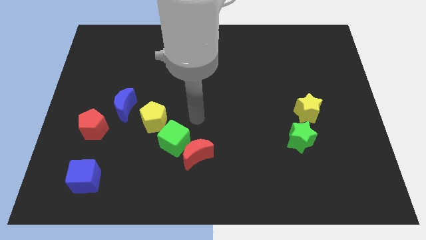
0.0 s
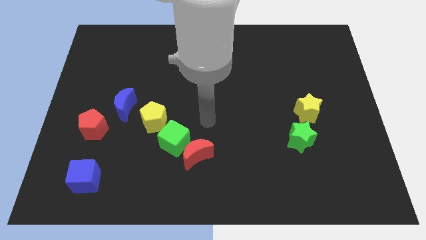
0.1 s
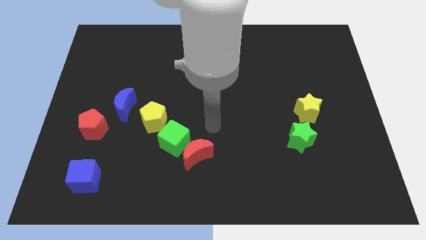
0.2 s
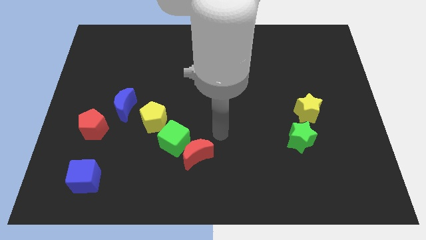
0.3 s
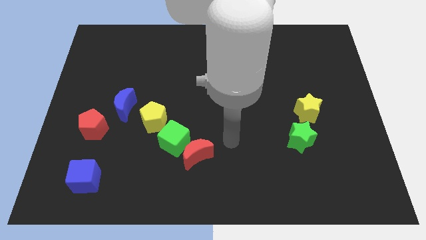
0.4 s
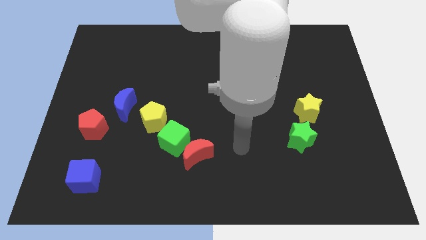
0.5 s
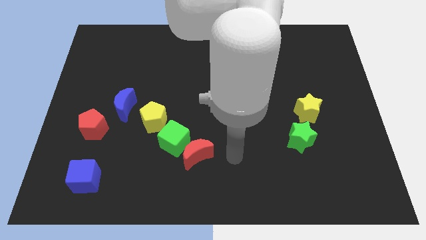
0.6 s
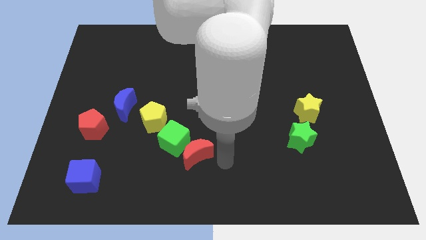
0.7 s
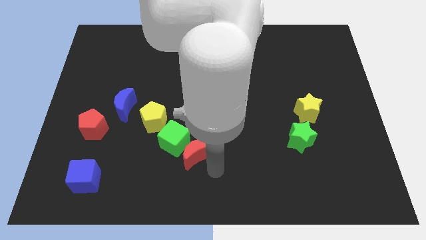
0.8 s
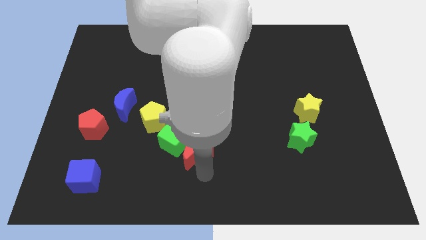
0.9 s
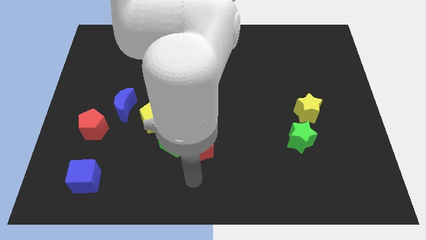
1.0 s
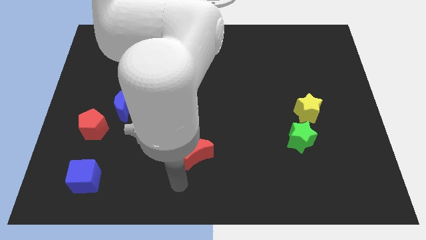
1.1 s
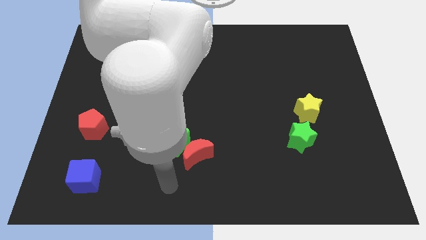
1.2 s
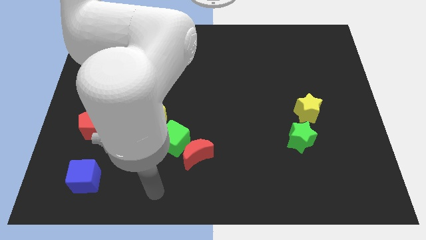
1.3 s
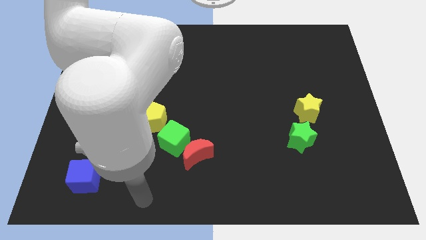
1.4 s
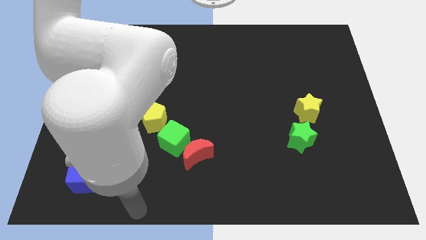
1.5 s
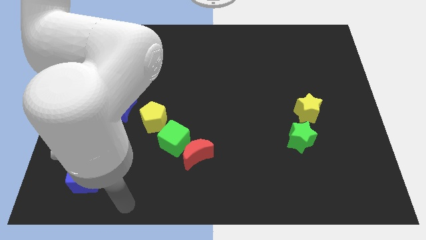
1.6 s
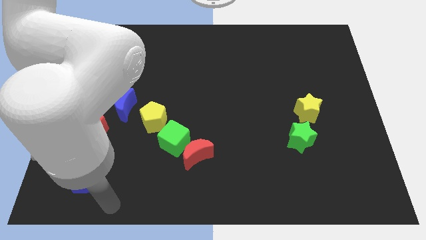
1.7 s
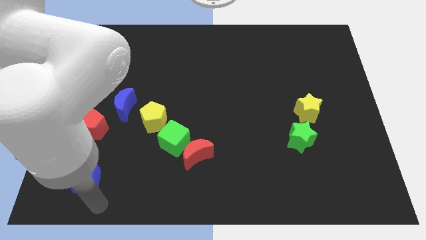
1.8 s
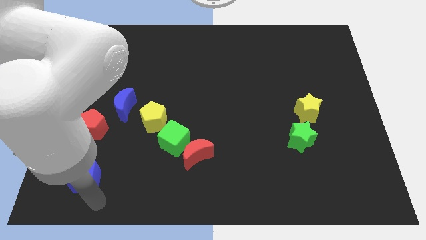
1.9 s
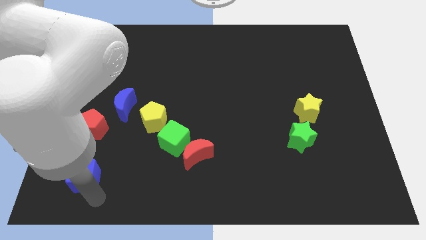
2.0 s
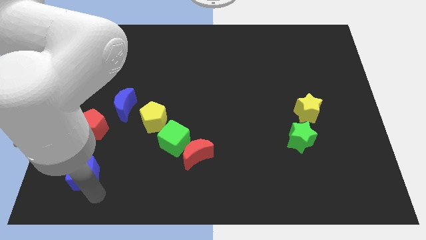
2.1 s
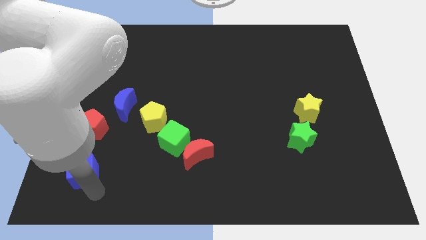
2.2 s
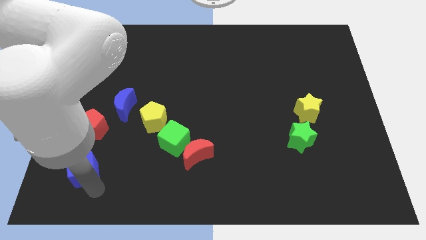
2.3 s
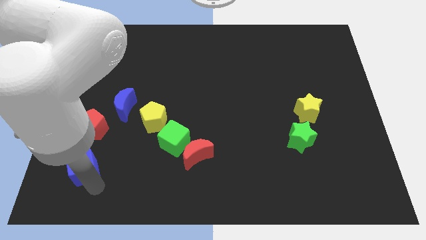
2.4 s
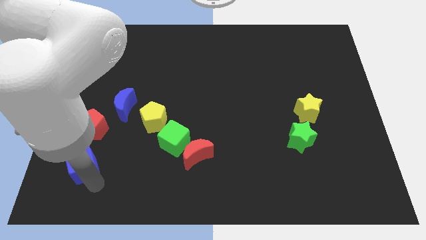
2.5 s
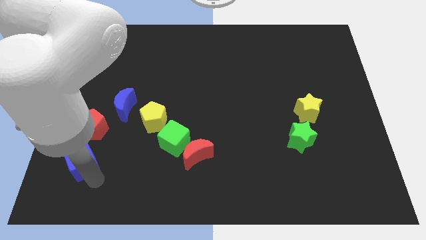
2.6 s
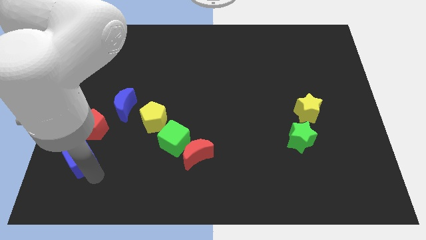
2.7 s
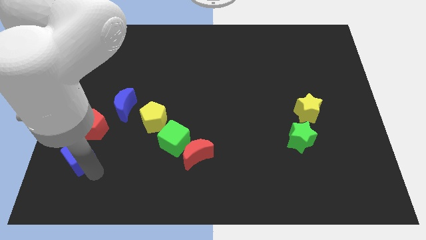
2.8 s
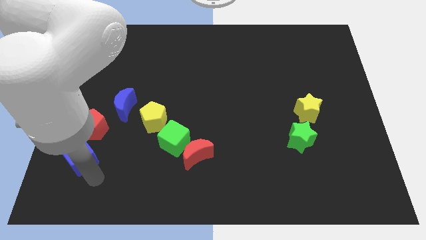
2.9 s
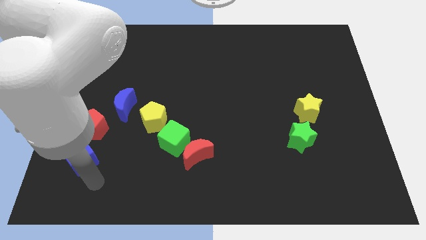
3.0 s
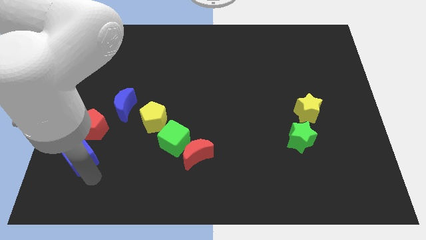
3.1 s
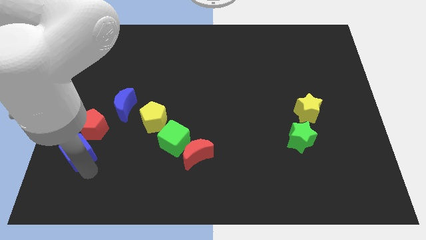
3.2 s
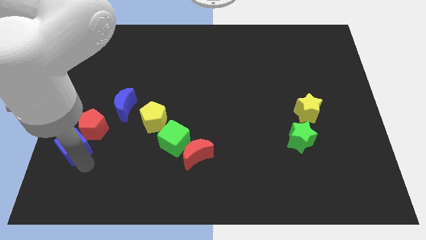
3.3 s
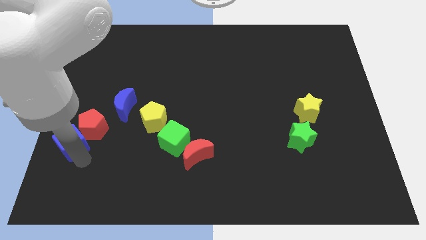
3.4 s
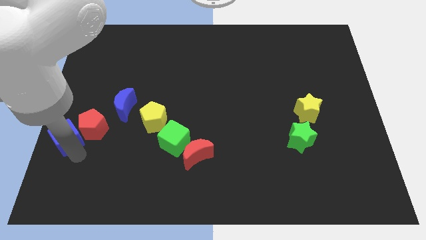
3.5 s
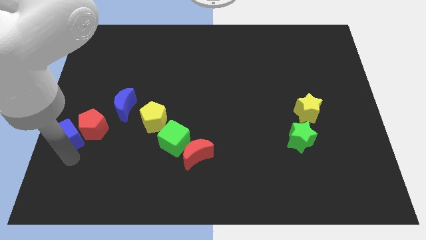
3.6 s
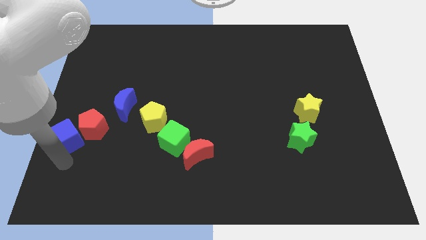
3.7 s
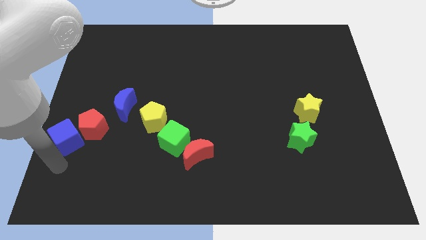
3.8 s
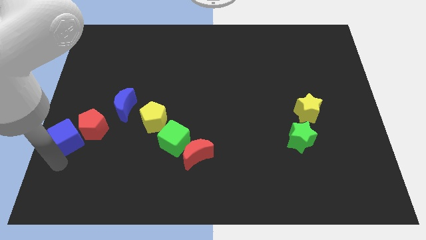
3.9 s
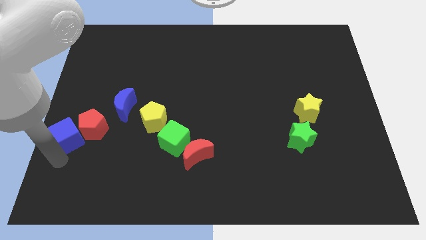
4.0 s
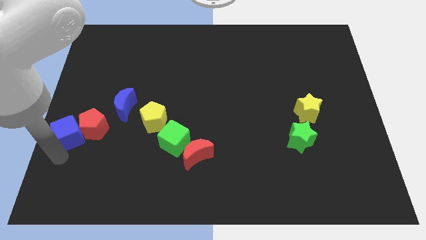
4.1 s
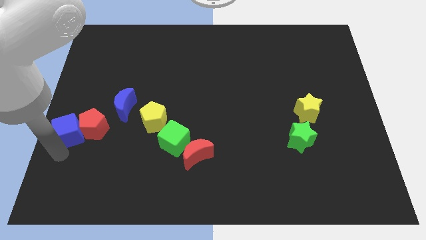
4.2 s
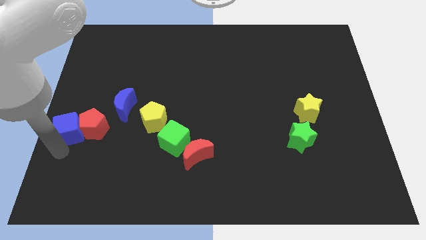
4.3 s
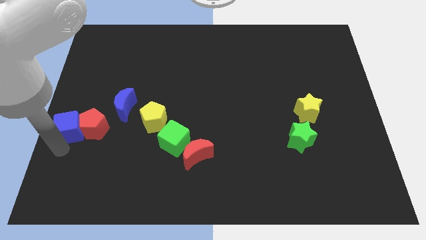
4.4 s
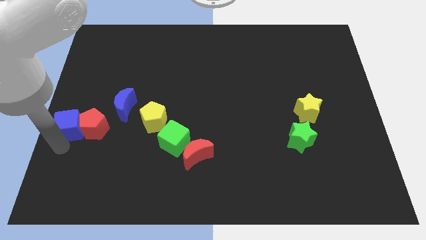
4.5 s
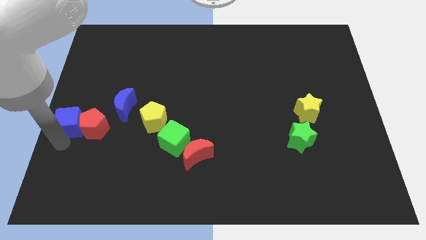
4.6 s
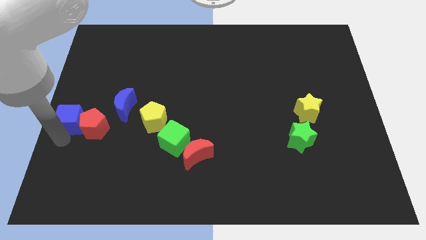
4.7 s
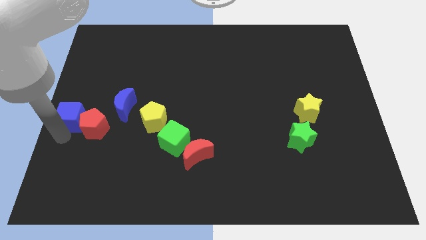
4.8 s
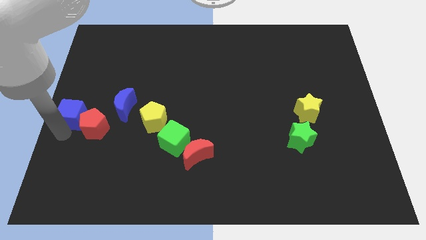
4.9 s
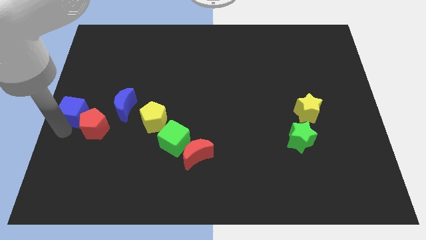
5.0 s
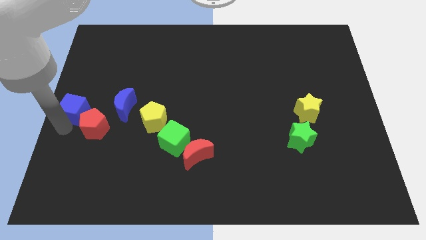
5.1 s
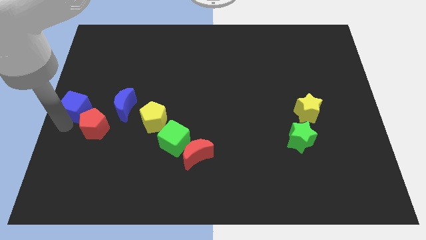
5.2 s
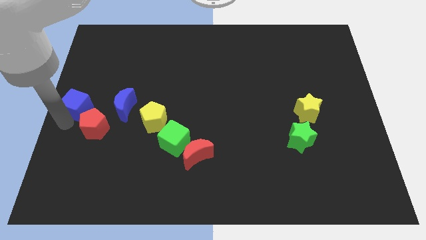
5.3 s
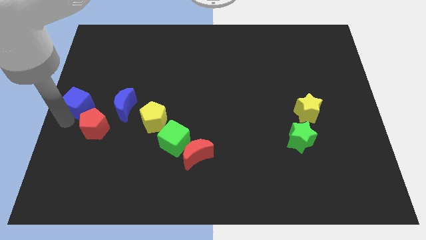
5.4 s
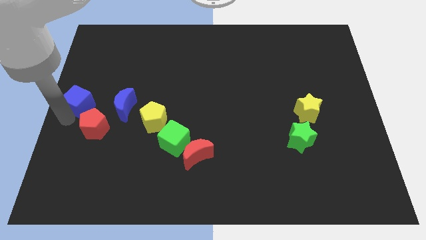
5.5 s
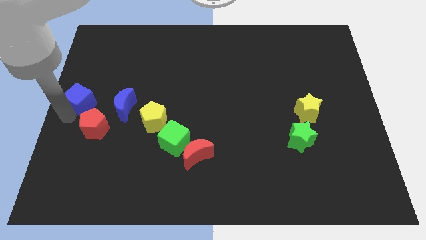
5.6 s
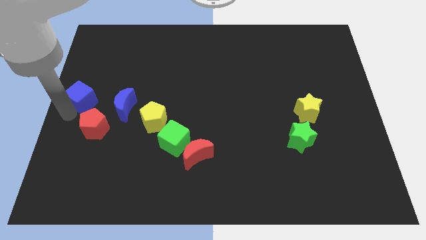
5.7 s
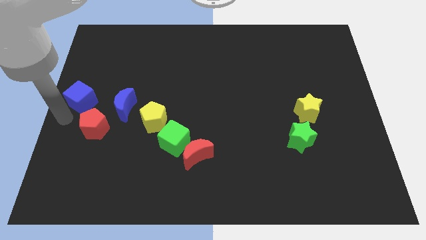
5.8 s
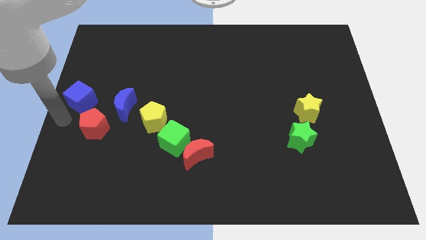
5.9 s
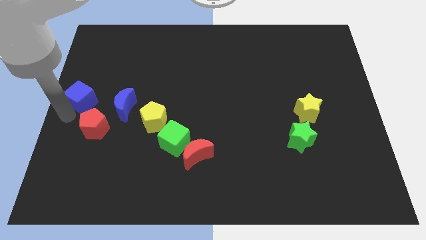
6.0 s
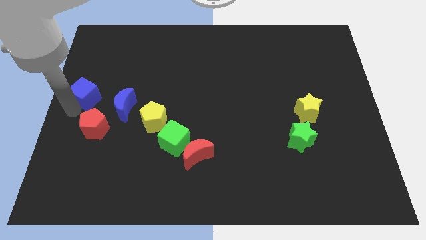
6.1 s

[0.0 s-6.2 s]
slide the blue cube upwards

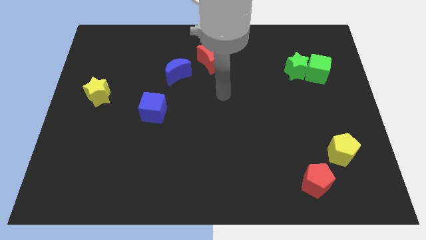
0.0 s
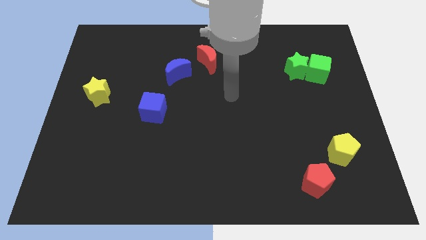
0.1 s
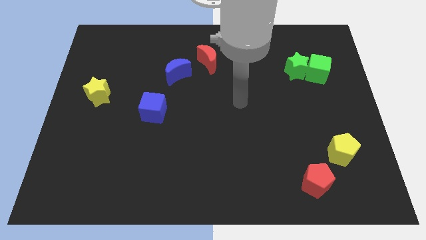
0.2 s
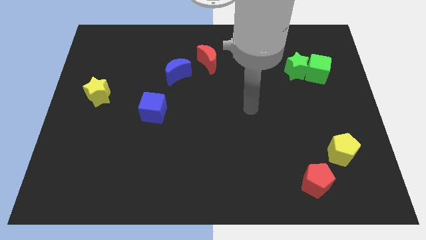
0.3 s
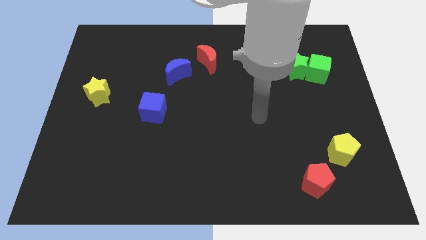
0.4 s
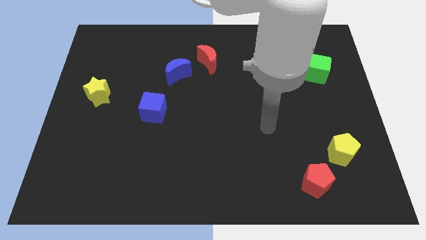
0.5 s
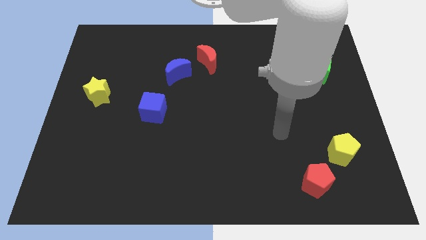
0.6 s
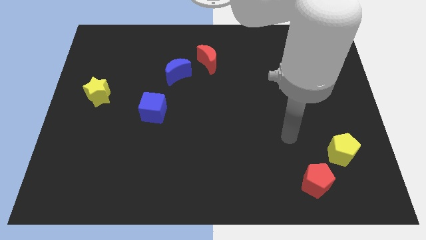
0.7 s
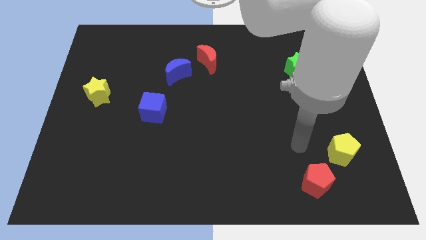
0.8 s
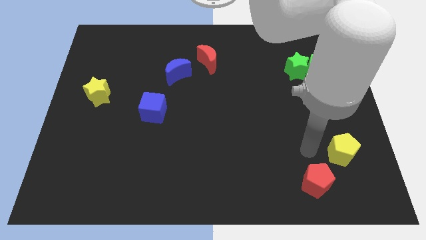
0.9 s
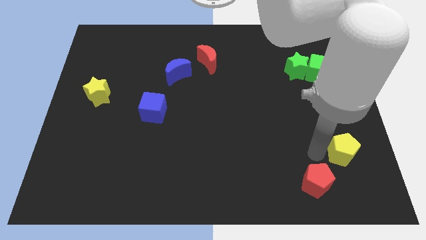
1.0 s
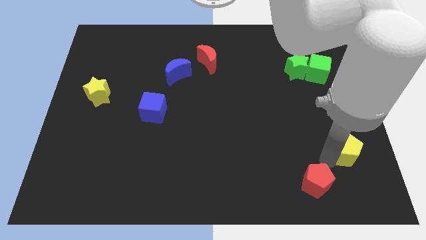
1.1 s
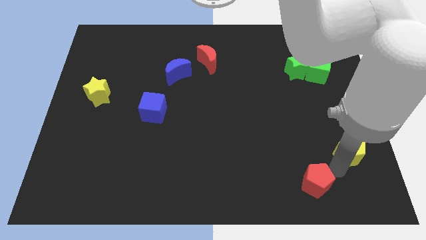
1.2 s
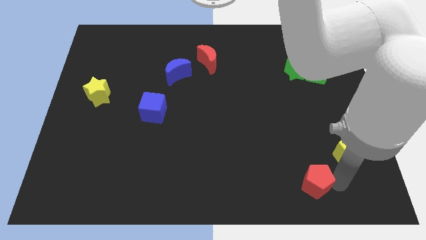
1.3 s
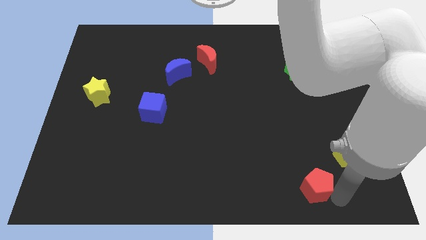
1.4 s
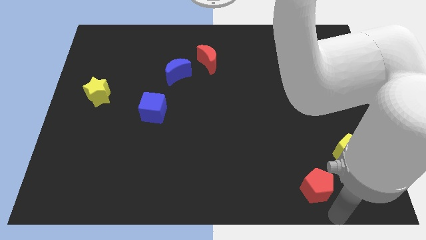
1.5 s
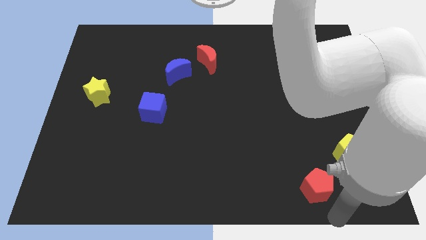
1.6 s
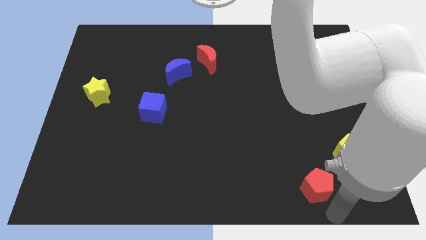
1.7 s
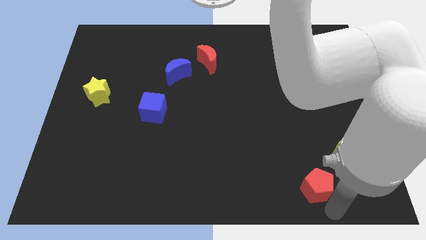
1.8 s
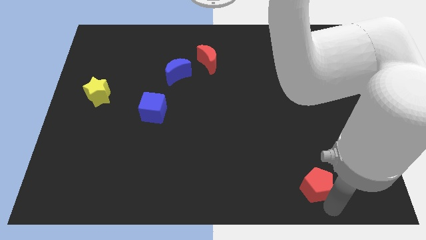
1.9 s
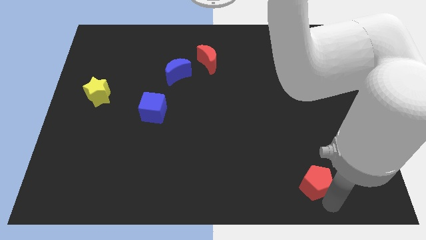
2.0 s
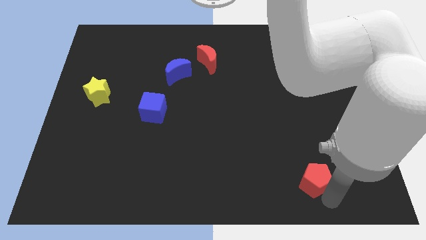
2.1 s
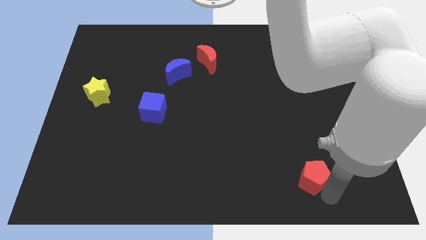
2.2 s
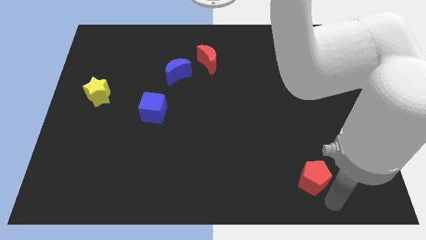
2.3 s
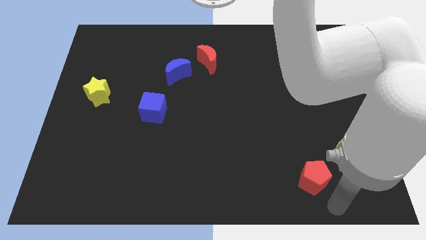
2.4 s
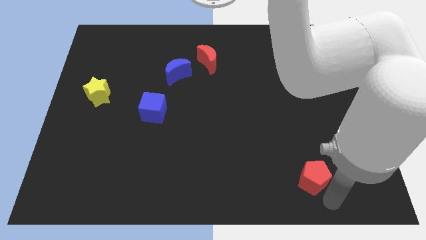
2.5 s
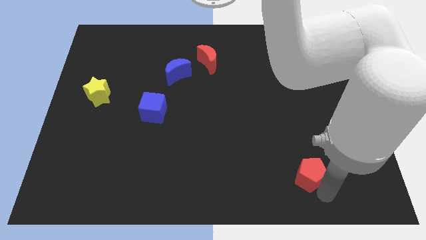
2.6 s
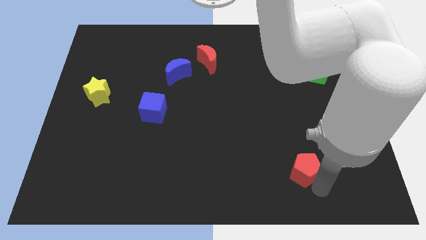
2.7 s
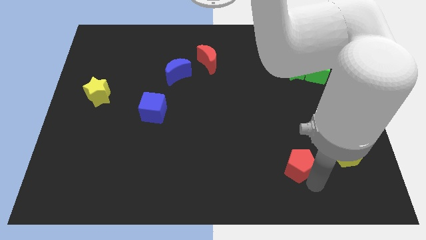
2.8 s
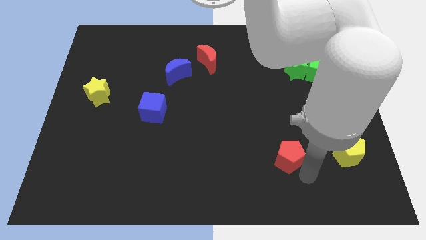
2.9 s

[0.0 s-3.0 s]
move the red pentagon diagonally up and to the left somewhat
